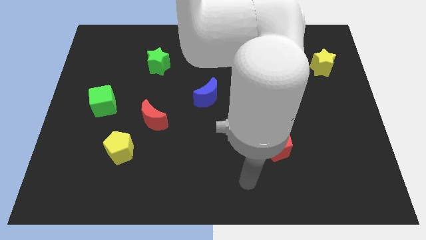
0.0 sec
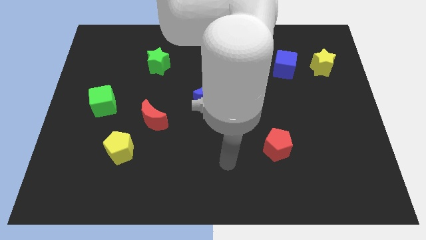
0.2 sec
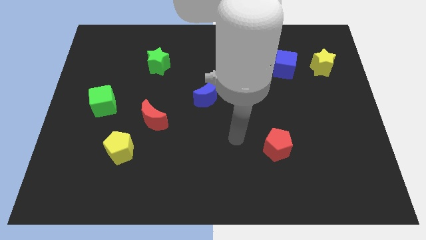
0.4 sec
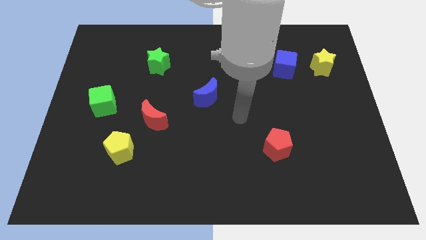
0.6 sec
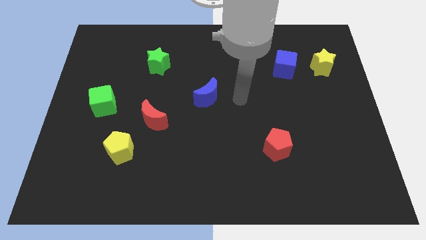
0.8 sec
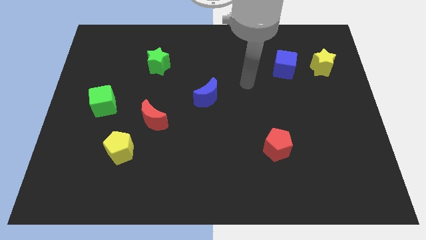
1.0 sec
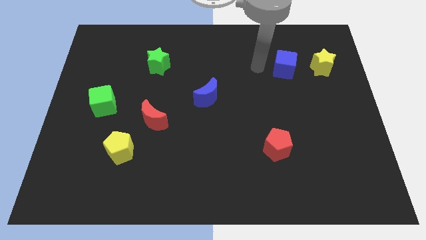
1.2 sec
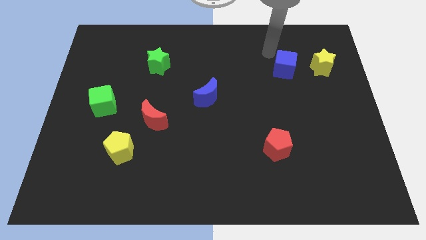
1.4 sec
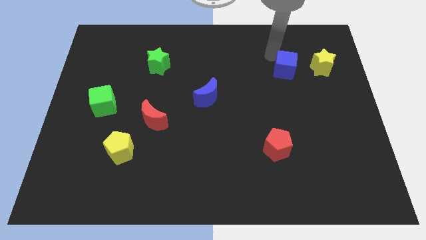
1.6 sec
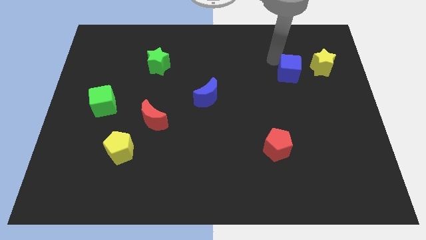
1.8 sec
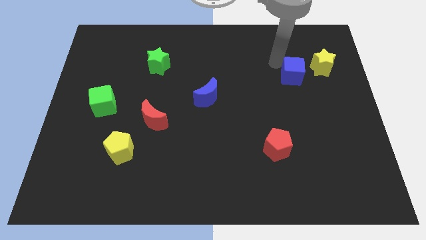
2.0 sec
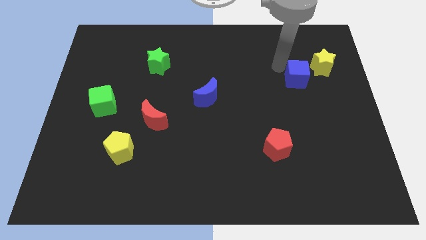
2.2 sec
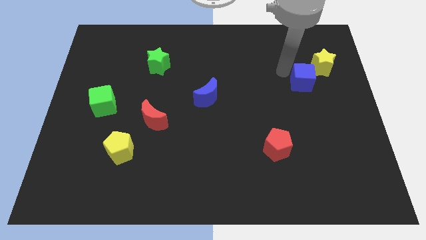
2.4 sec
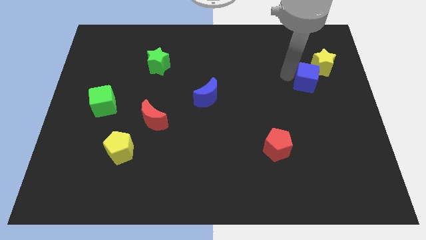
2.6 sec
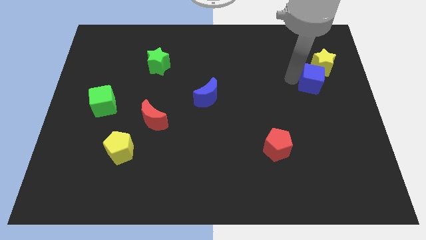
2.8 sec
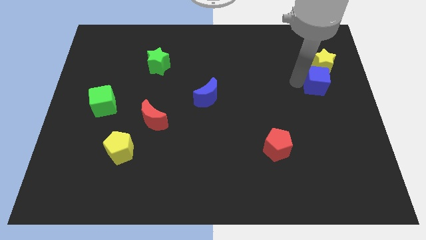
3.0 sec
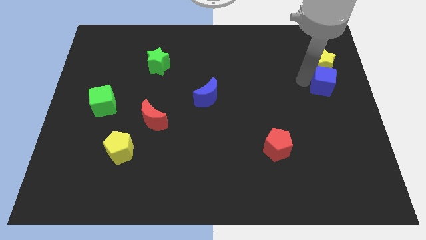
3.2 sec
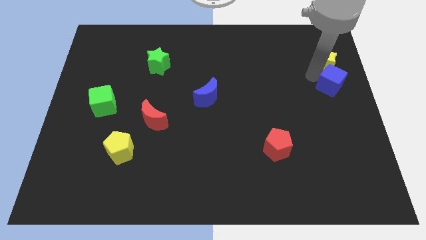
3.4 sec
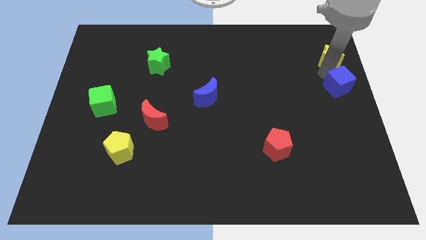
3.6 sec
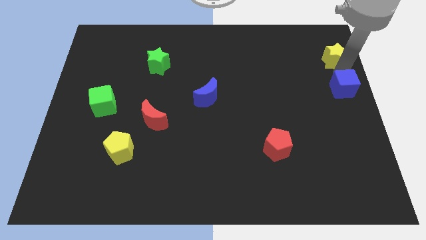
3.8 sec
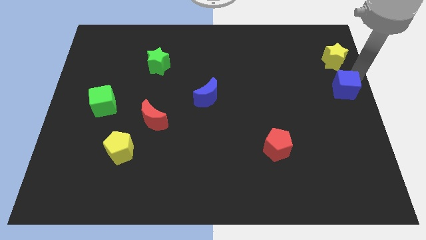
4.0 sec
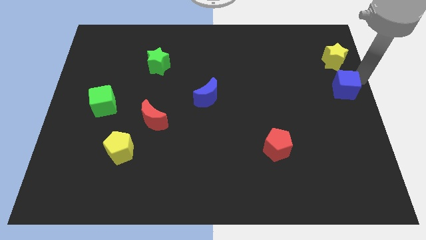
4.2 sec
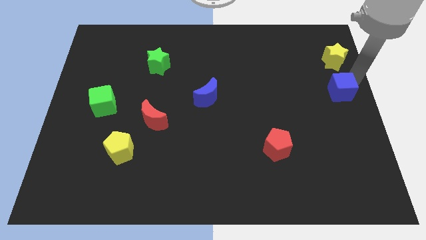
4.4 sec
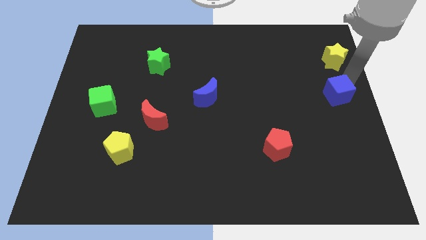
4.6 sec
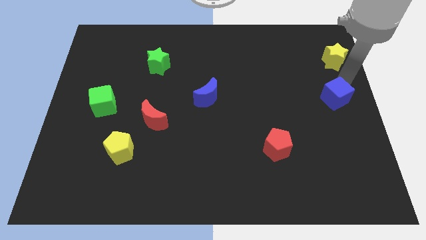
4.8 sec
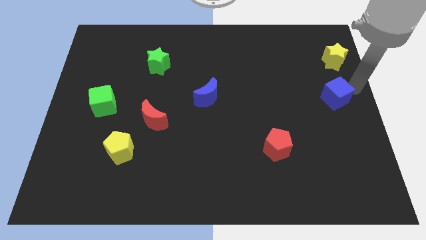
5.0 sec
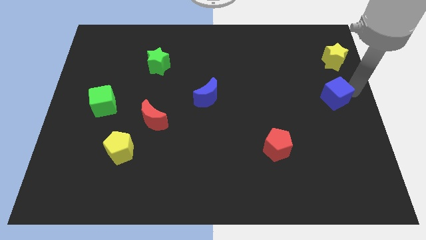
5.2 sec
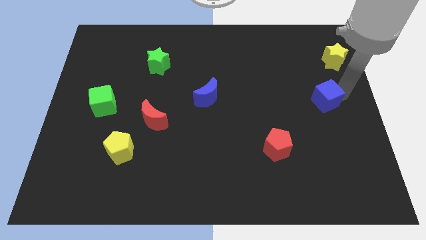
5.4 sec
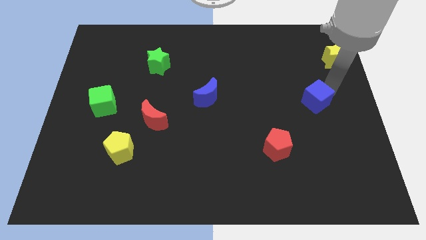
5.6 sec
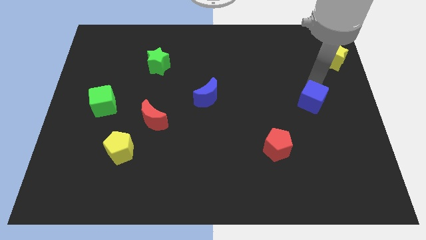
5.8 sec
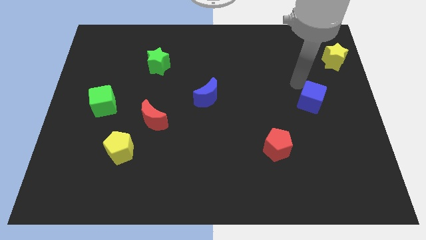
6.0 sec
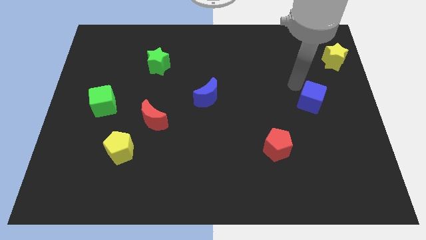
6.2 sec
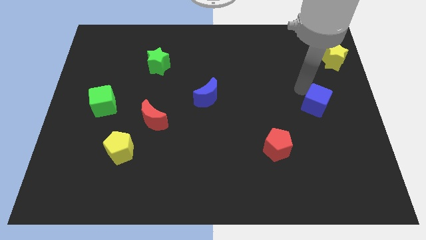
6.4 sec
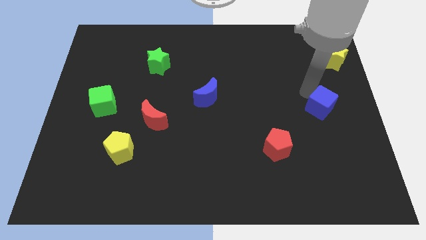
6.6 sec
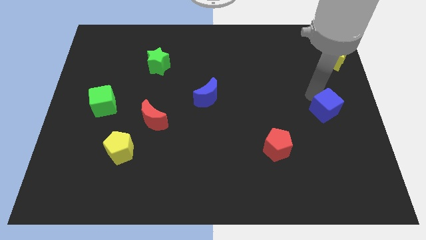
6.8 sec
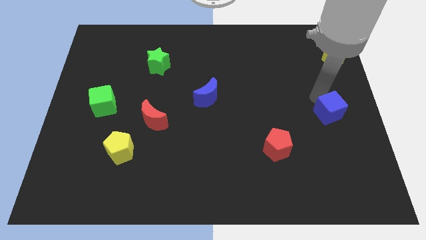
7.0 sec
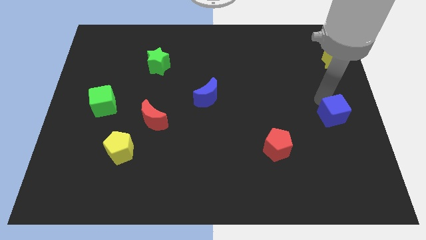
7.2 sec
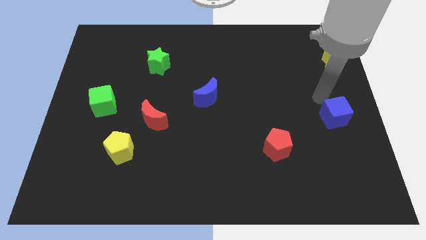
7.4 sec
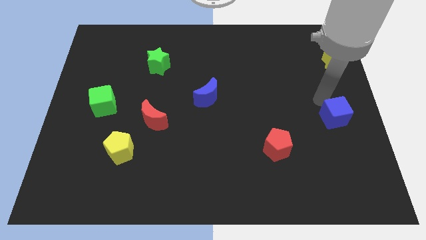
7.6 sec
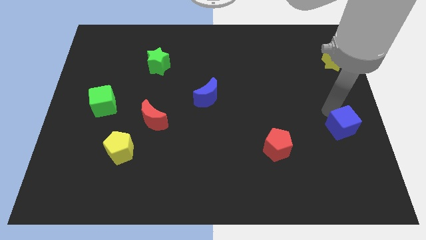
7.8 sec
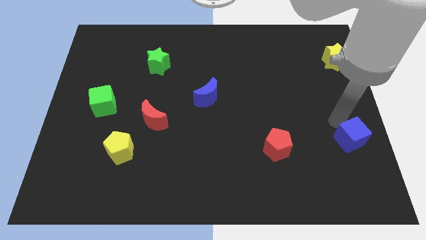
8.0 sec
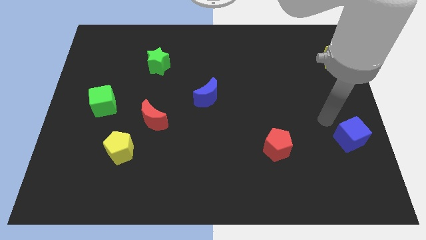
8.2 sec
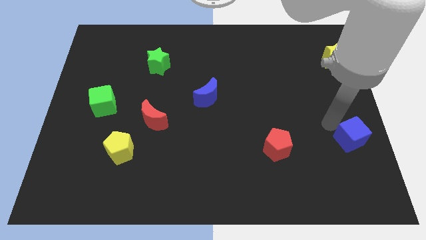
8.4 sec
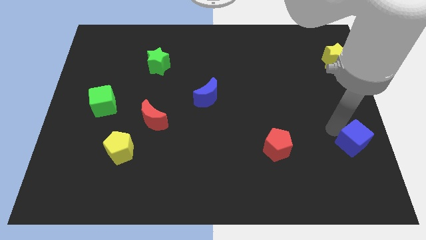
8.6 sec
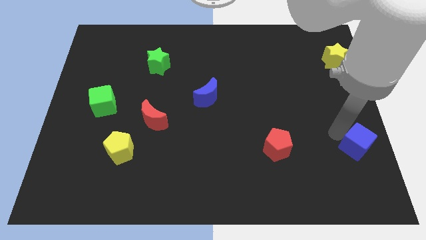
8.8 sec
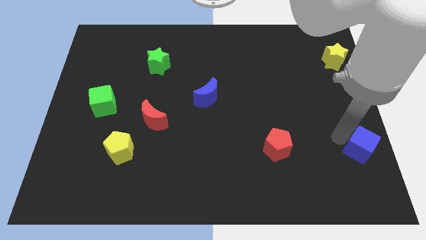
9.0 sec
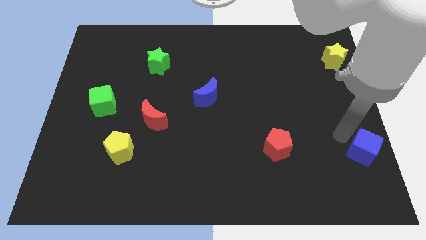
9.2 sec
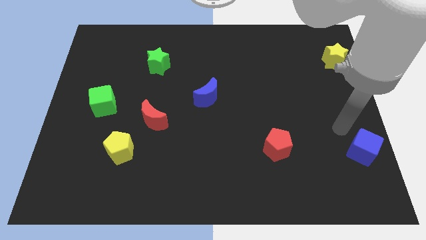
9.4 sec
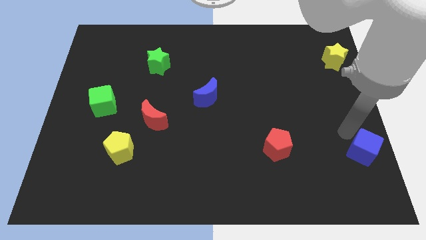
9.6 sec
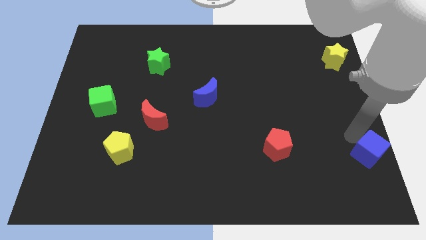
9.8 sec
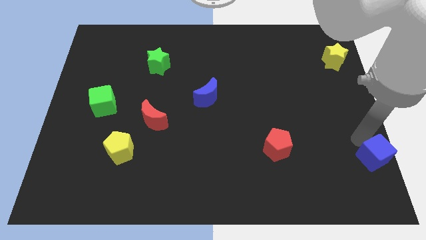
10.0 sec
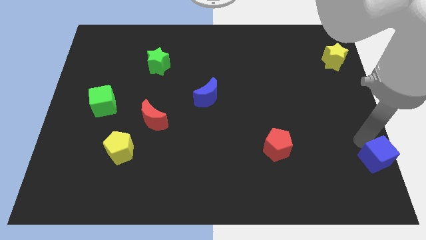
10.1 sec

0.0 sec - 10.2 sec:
move the blue cube to the bottom right corner
